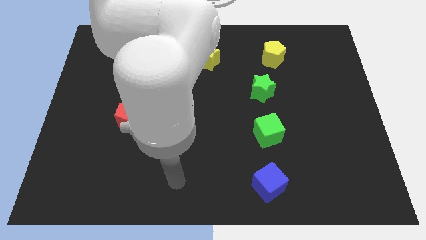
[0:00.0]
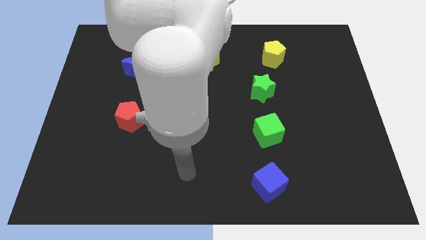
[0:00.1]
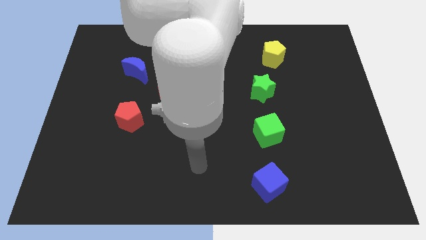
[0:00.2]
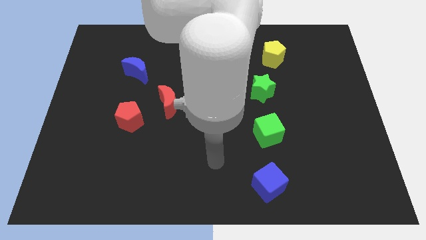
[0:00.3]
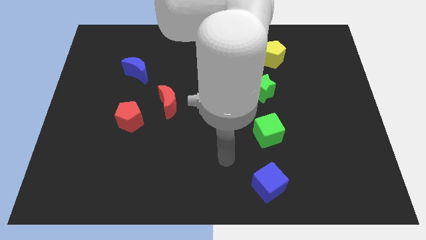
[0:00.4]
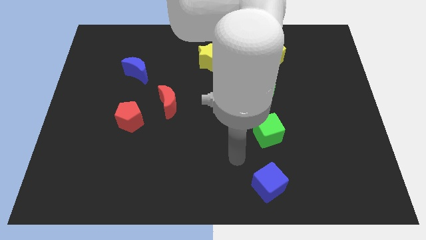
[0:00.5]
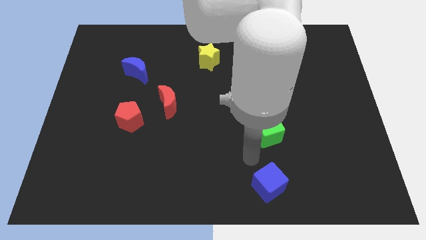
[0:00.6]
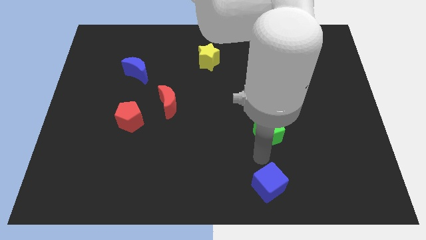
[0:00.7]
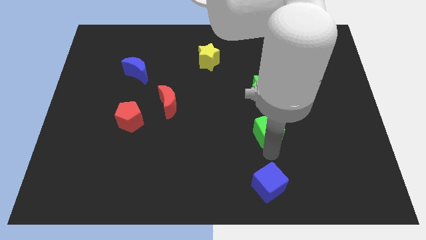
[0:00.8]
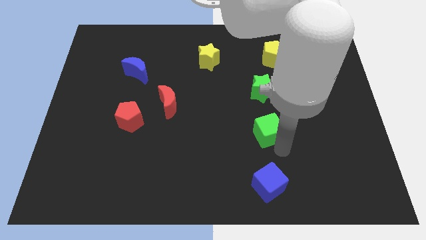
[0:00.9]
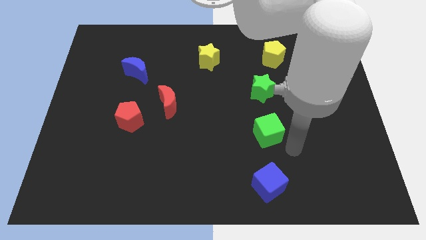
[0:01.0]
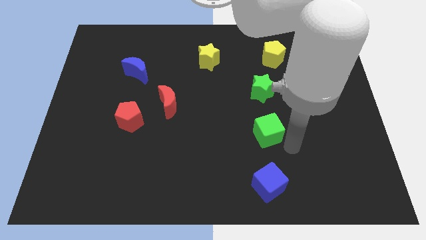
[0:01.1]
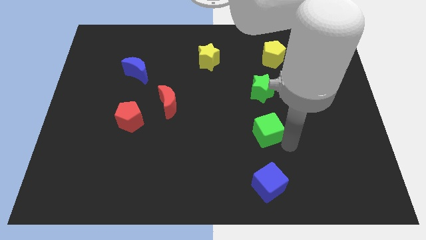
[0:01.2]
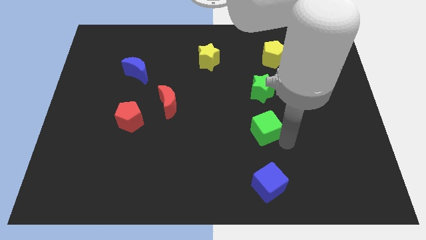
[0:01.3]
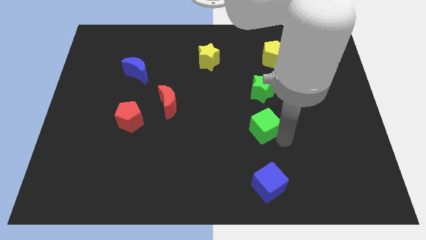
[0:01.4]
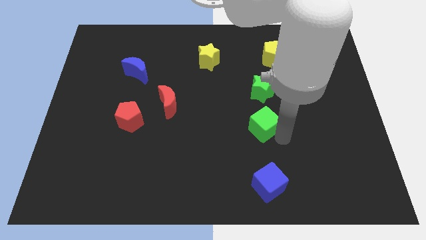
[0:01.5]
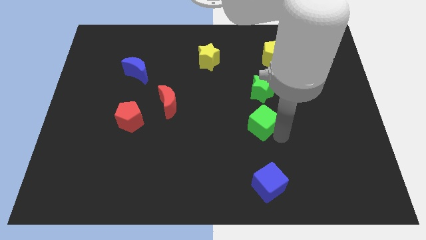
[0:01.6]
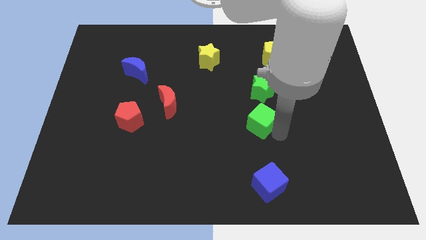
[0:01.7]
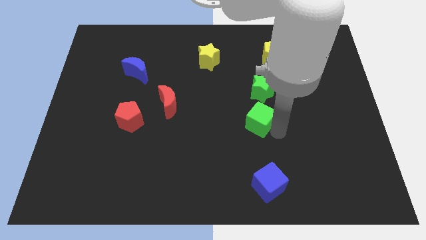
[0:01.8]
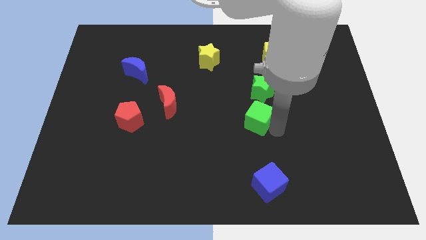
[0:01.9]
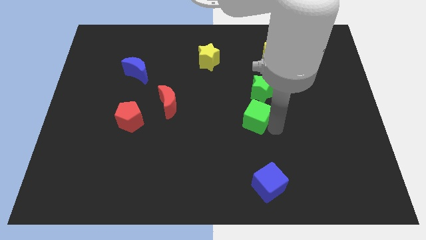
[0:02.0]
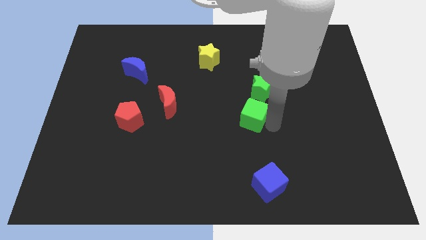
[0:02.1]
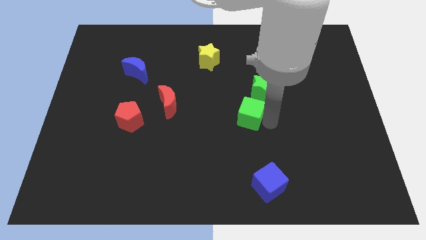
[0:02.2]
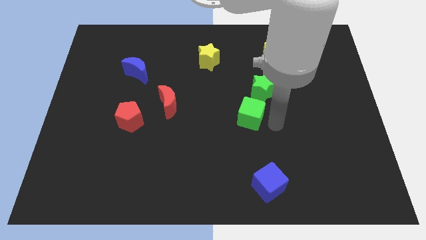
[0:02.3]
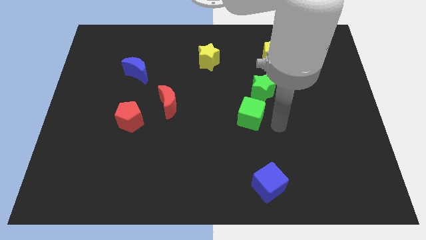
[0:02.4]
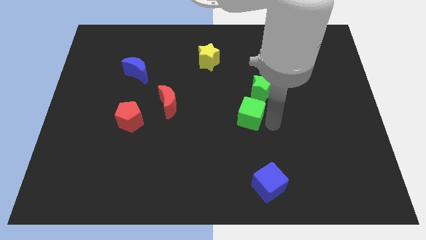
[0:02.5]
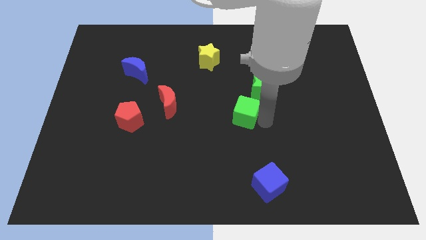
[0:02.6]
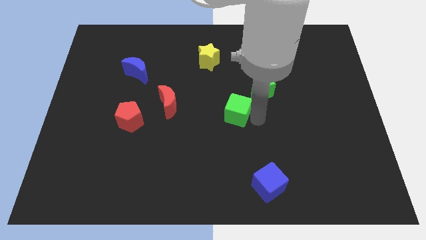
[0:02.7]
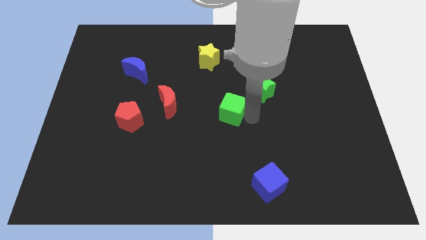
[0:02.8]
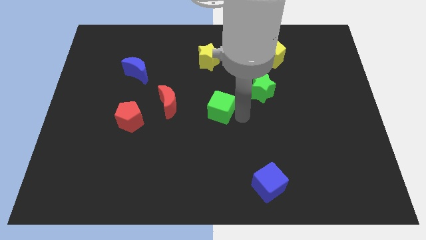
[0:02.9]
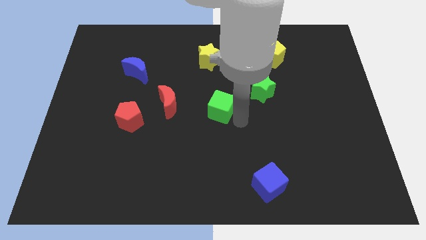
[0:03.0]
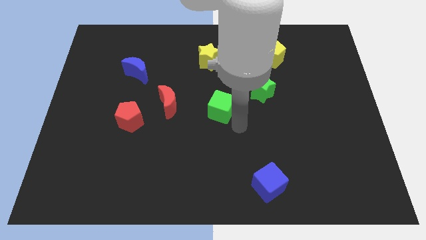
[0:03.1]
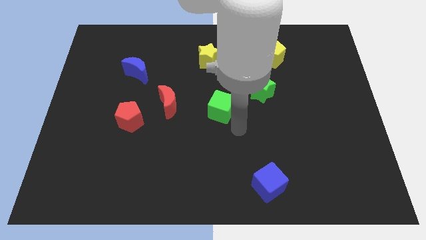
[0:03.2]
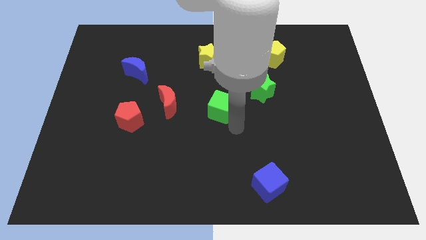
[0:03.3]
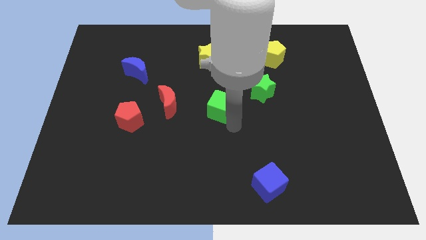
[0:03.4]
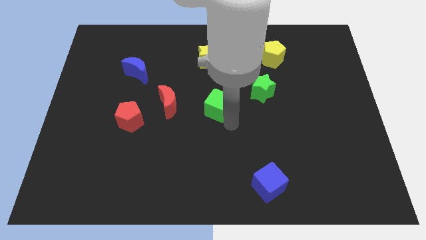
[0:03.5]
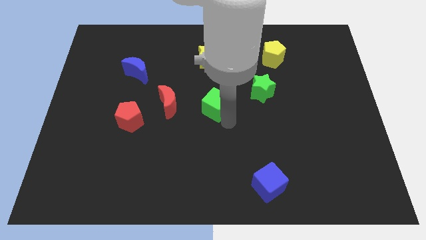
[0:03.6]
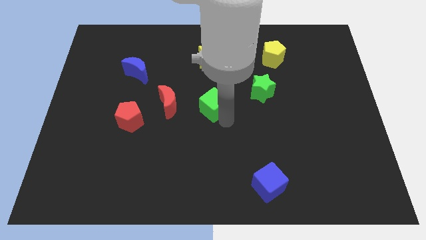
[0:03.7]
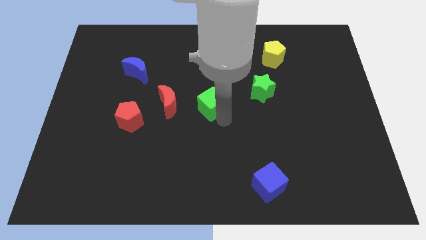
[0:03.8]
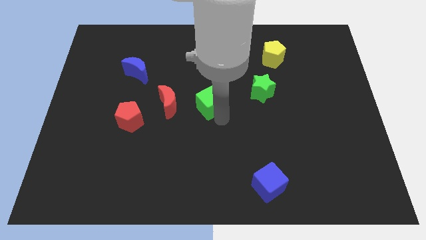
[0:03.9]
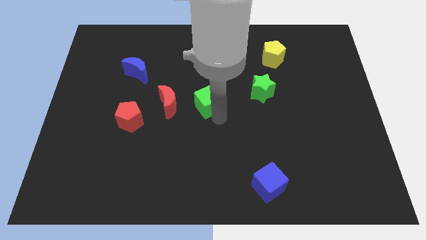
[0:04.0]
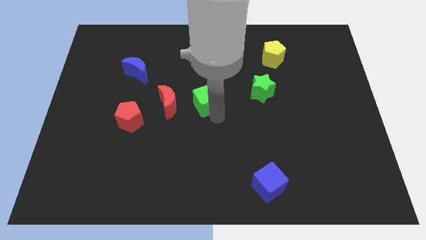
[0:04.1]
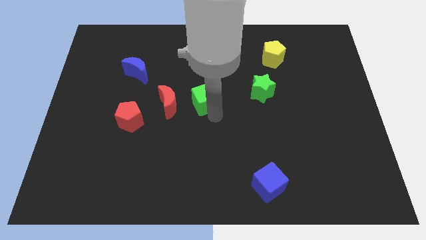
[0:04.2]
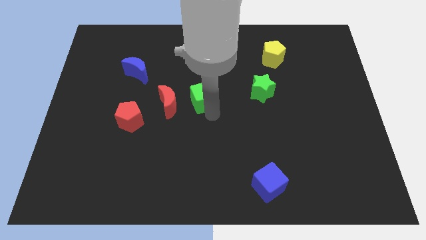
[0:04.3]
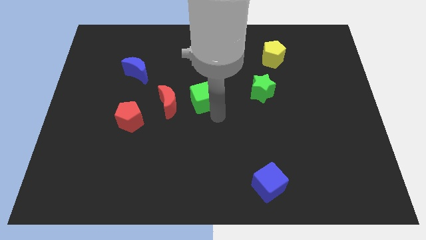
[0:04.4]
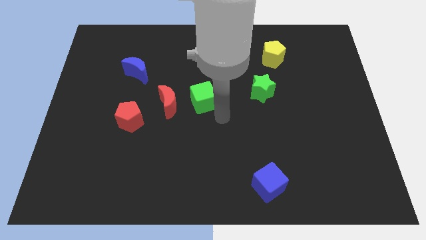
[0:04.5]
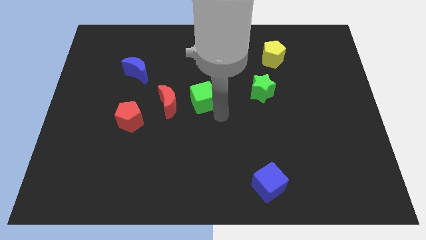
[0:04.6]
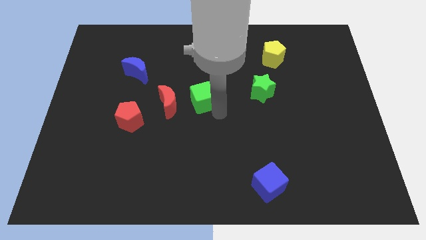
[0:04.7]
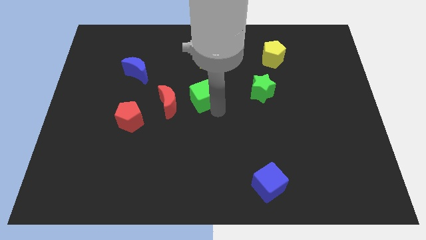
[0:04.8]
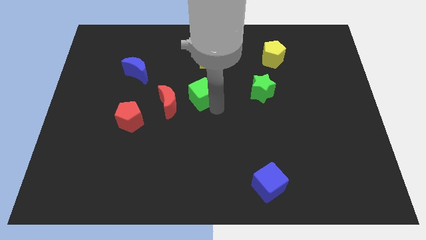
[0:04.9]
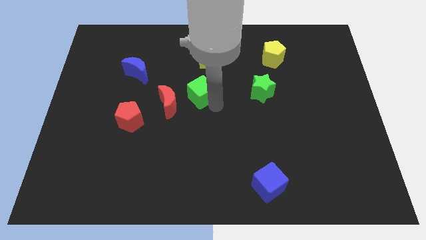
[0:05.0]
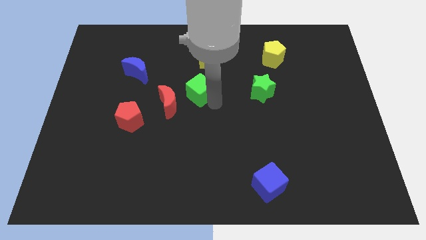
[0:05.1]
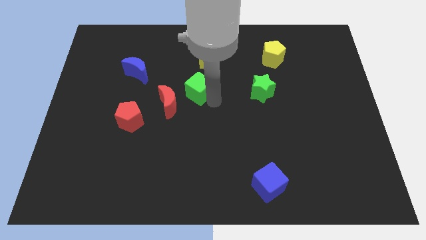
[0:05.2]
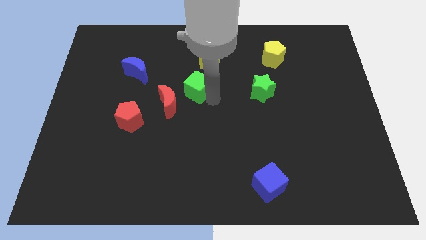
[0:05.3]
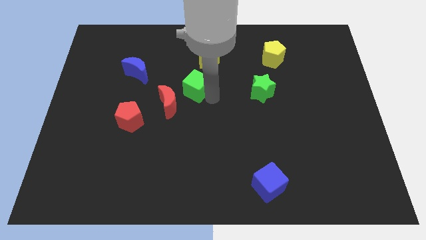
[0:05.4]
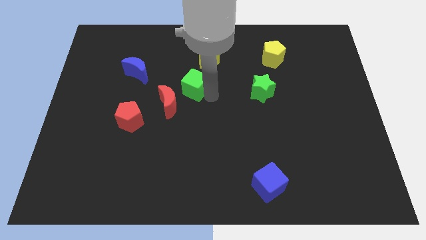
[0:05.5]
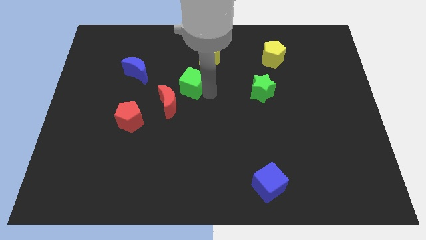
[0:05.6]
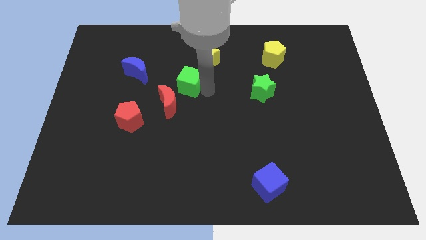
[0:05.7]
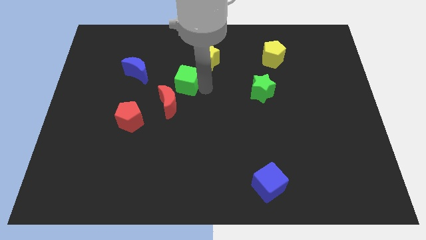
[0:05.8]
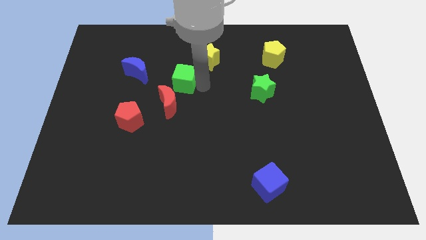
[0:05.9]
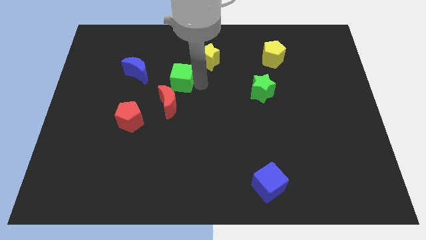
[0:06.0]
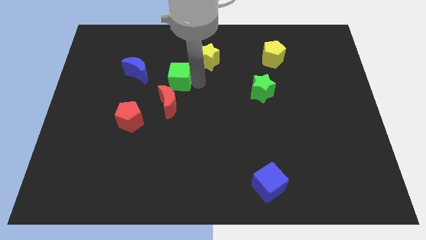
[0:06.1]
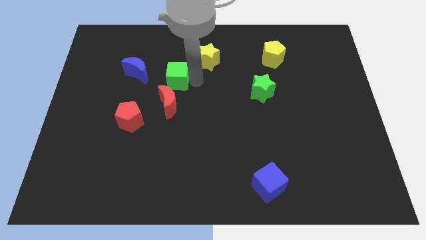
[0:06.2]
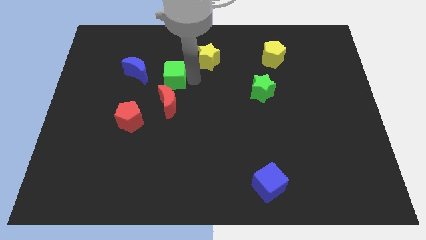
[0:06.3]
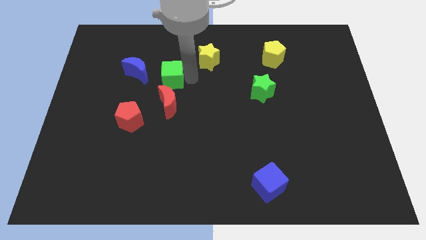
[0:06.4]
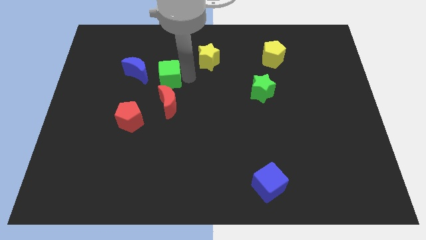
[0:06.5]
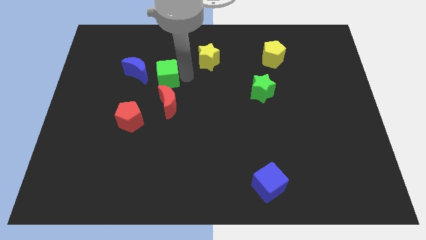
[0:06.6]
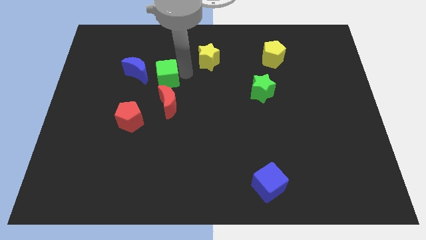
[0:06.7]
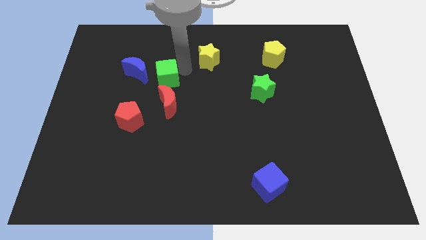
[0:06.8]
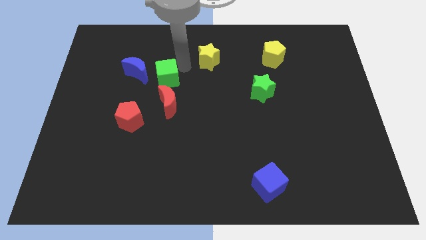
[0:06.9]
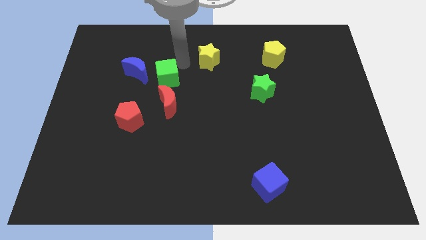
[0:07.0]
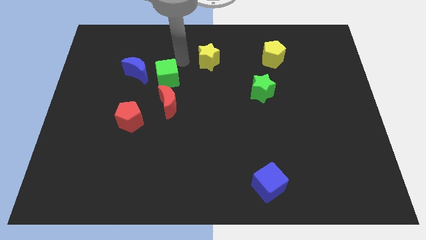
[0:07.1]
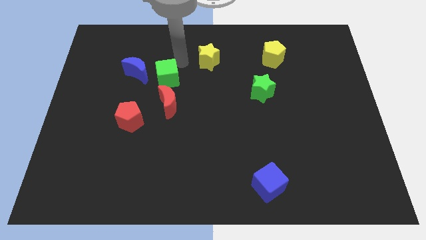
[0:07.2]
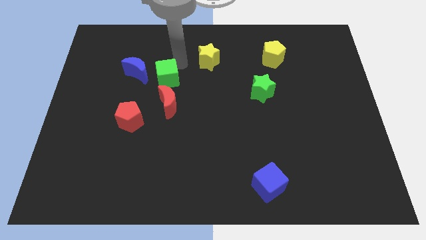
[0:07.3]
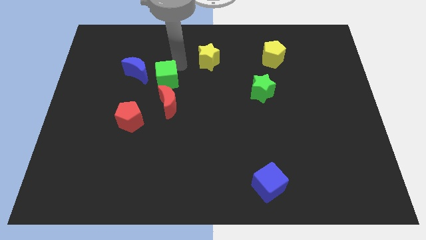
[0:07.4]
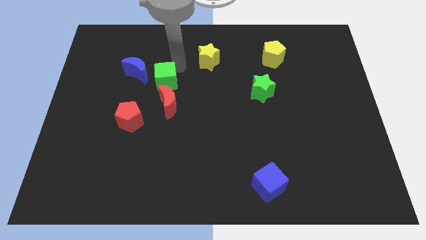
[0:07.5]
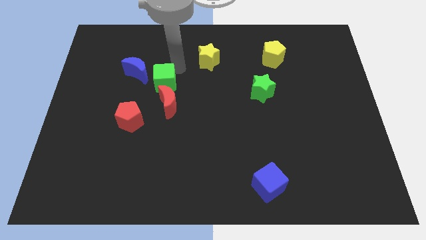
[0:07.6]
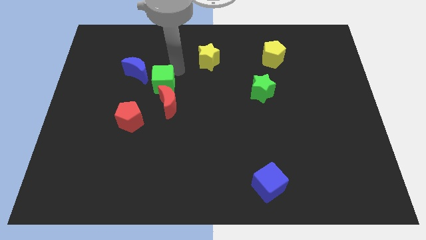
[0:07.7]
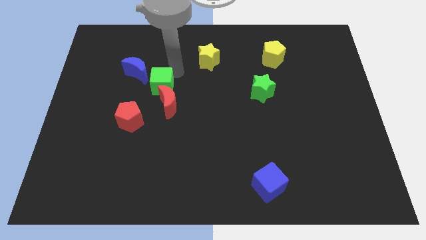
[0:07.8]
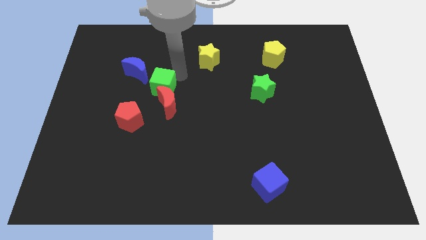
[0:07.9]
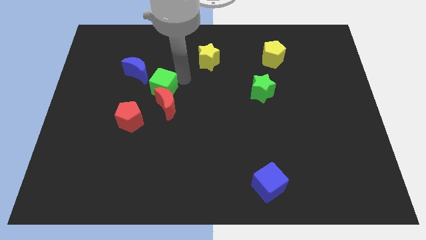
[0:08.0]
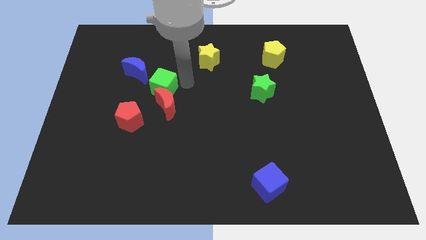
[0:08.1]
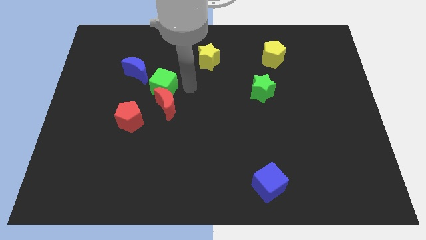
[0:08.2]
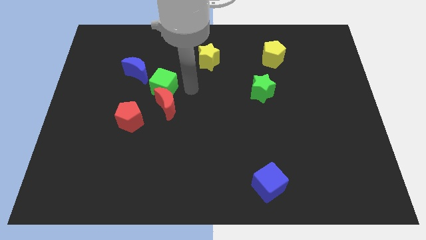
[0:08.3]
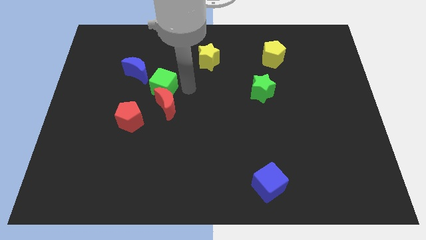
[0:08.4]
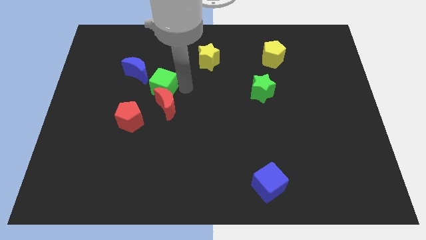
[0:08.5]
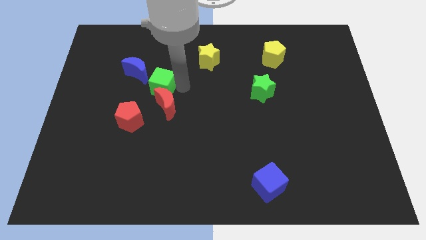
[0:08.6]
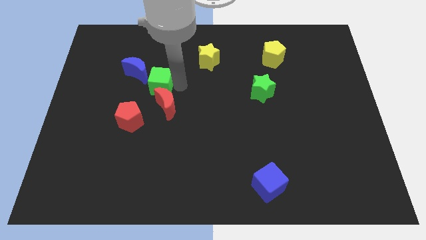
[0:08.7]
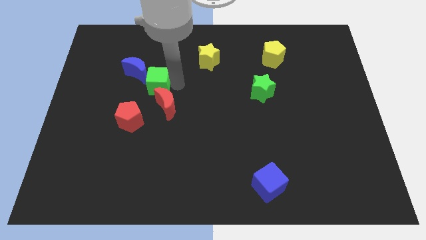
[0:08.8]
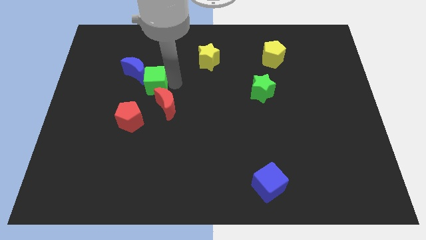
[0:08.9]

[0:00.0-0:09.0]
put the green cube to the top side of the red pentagon
